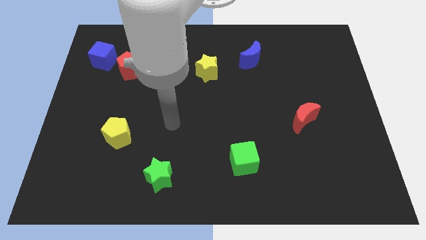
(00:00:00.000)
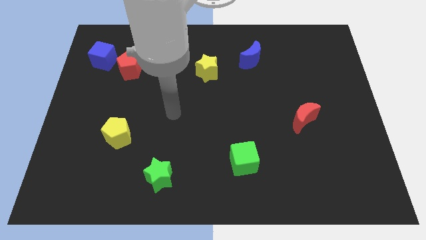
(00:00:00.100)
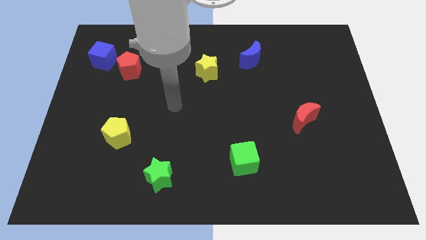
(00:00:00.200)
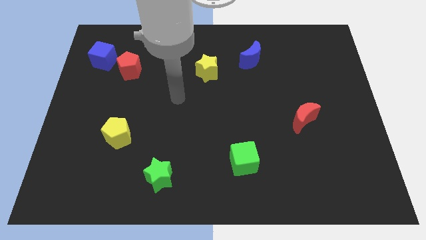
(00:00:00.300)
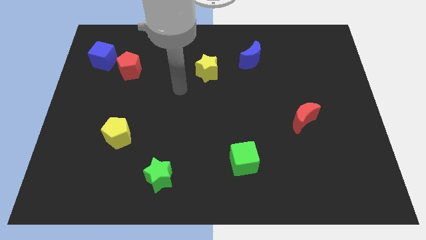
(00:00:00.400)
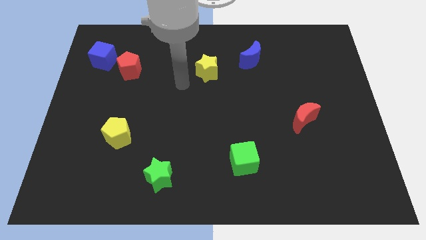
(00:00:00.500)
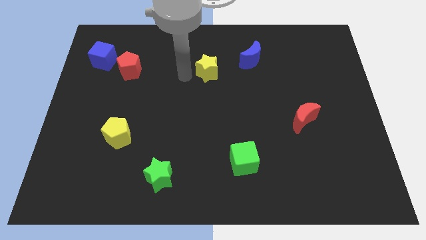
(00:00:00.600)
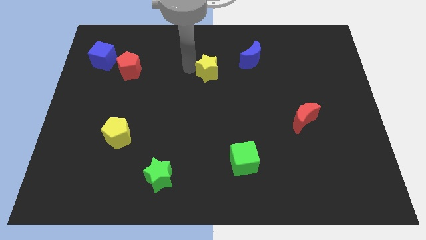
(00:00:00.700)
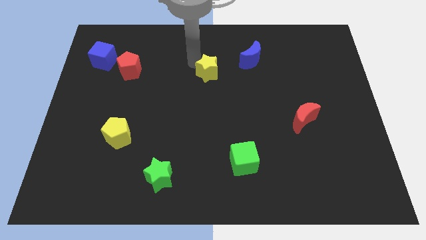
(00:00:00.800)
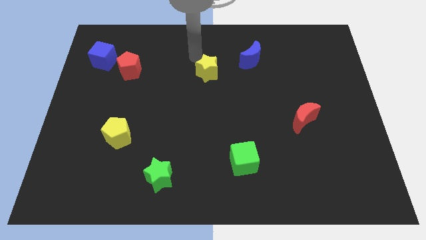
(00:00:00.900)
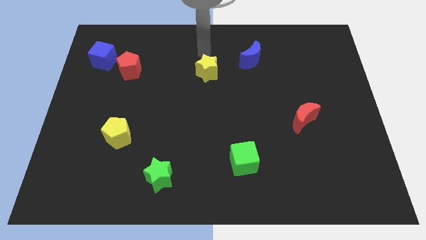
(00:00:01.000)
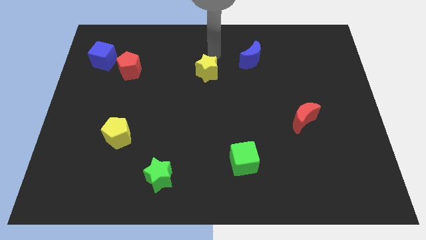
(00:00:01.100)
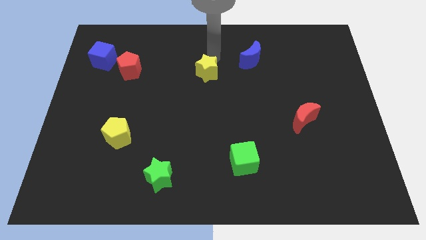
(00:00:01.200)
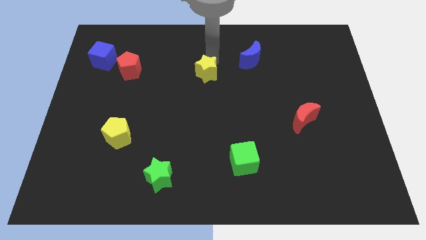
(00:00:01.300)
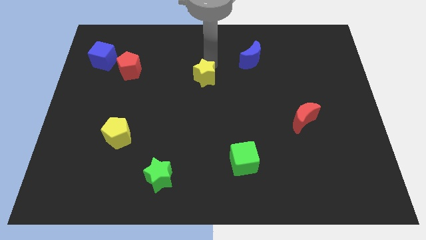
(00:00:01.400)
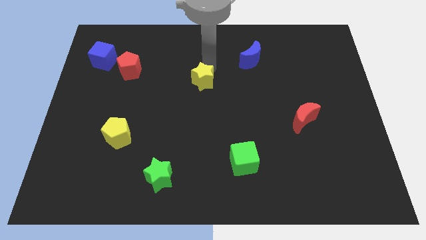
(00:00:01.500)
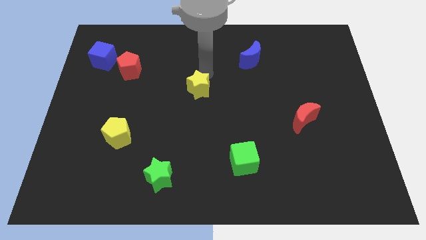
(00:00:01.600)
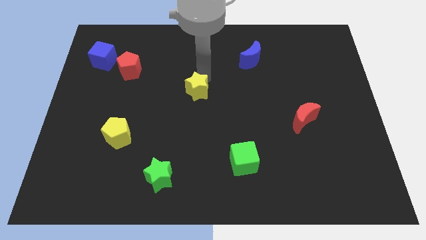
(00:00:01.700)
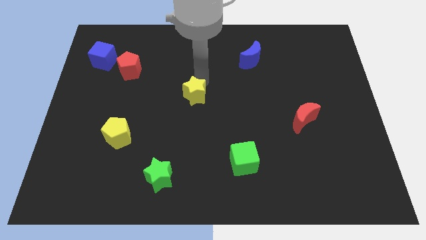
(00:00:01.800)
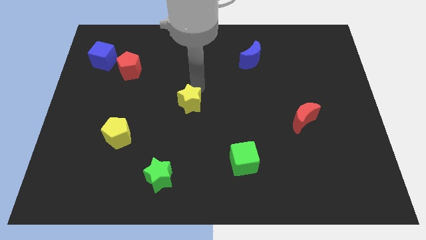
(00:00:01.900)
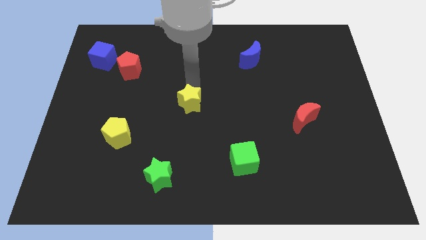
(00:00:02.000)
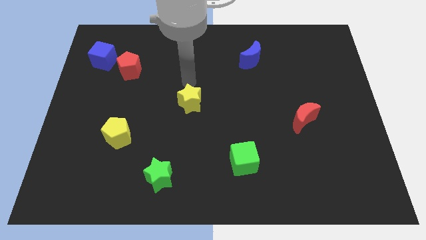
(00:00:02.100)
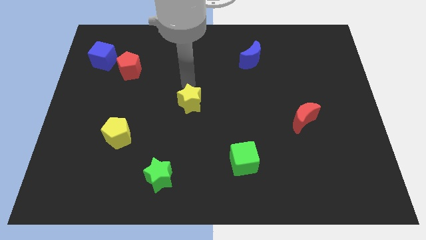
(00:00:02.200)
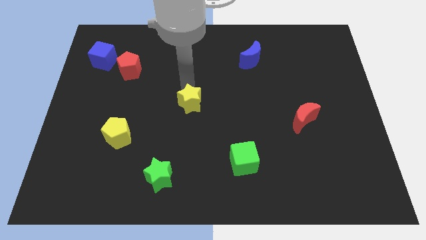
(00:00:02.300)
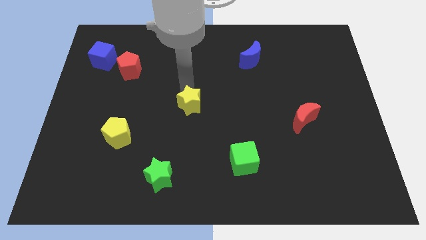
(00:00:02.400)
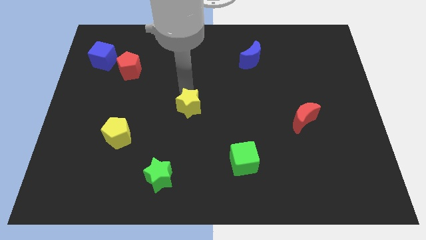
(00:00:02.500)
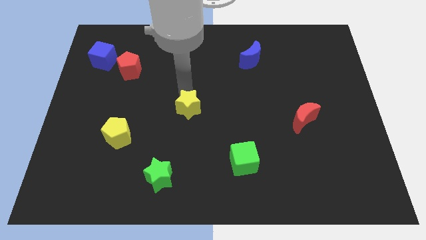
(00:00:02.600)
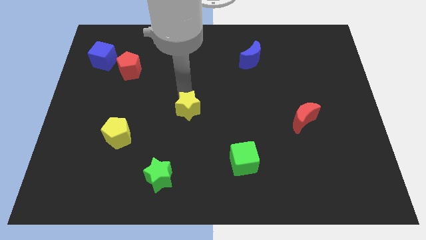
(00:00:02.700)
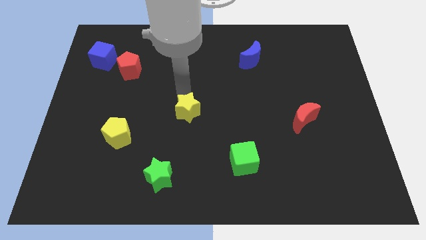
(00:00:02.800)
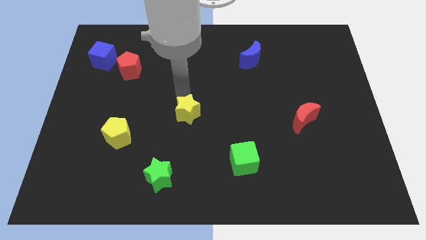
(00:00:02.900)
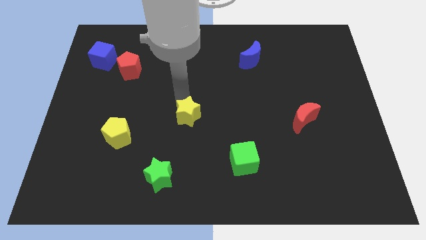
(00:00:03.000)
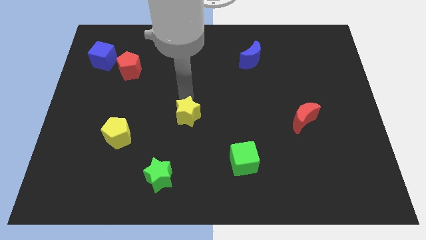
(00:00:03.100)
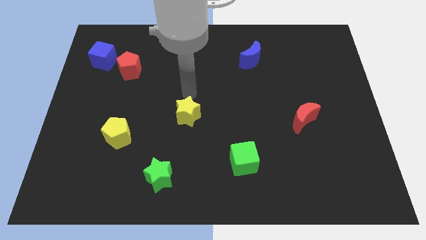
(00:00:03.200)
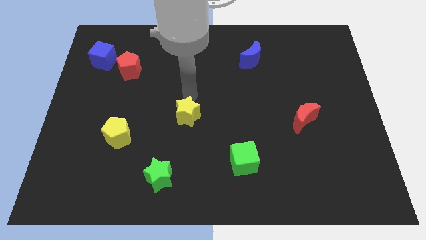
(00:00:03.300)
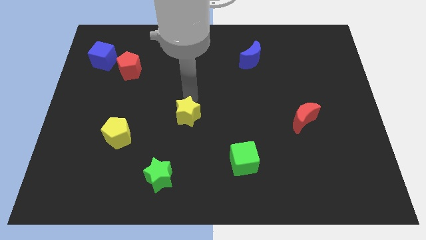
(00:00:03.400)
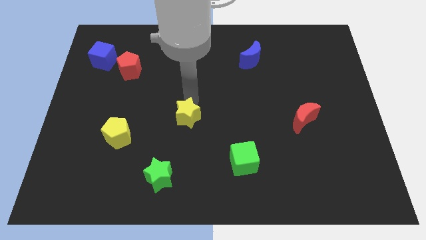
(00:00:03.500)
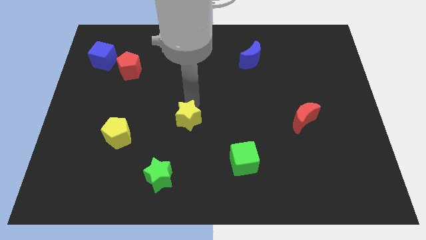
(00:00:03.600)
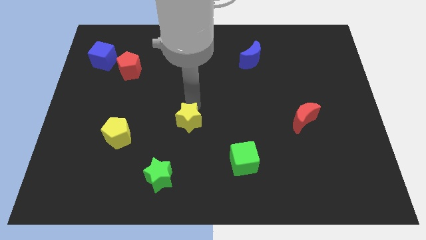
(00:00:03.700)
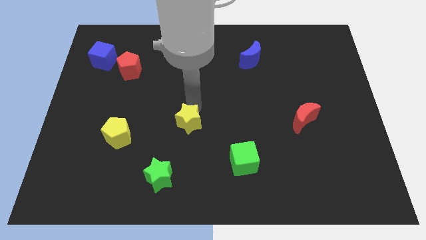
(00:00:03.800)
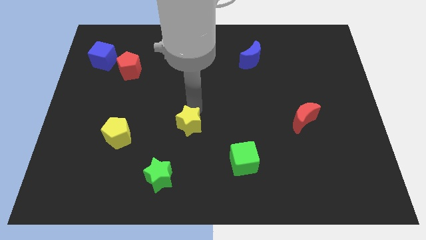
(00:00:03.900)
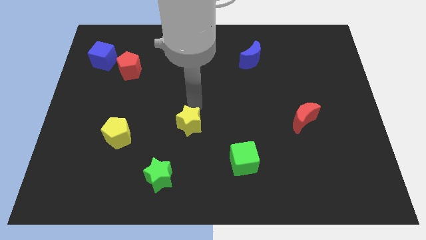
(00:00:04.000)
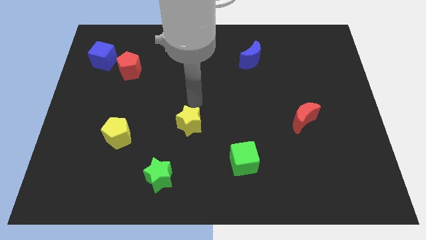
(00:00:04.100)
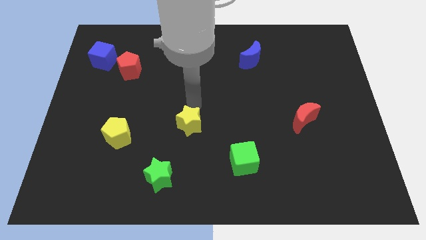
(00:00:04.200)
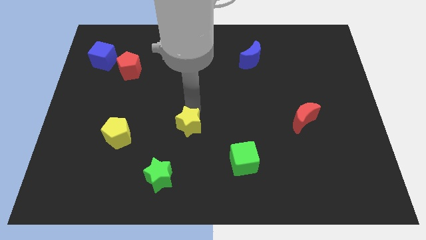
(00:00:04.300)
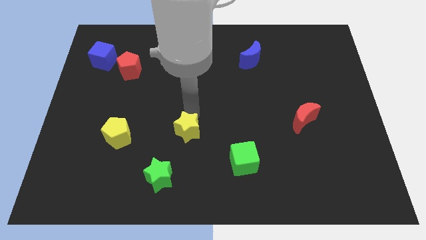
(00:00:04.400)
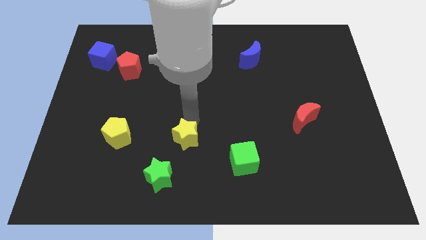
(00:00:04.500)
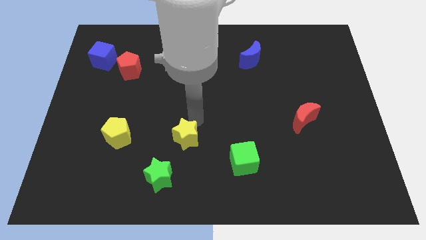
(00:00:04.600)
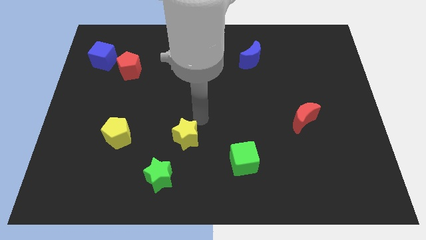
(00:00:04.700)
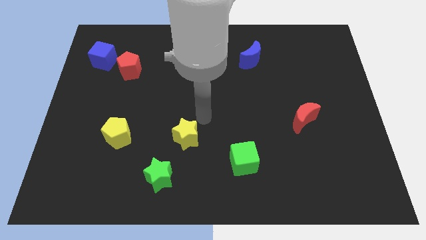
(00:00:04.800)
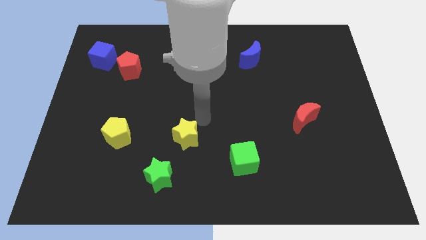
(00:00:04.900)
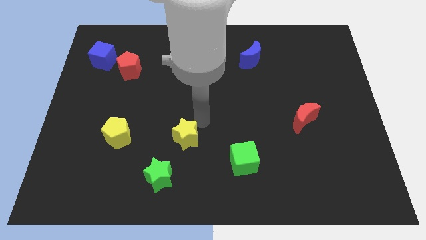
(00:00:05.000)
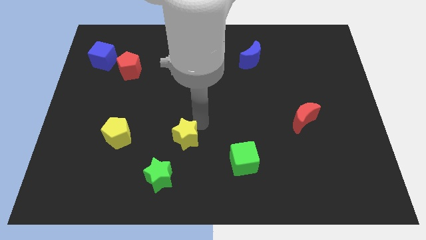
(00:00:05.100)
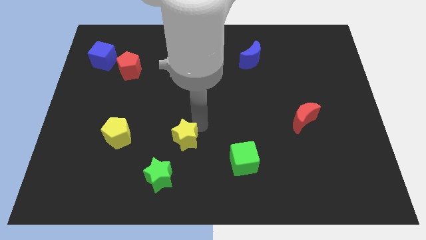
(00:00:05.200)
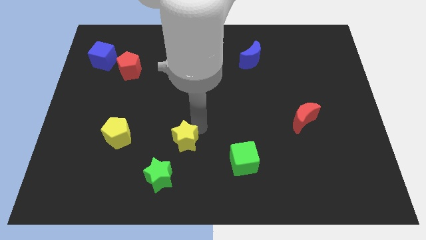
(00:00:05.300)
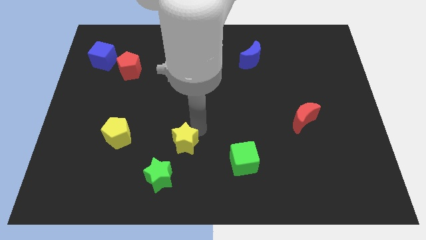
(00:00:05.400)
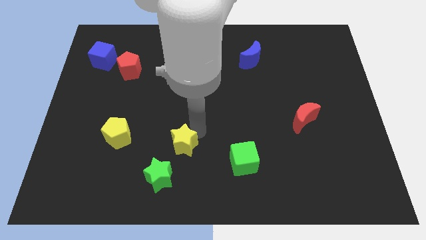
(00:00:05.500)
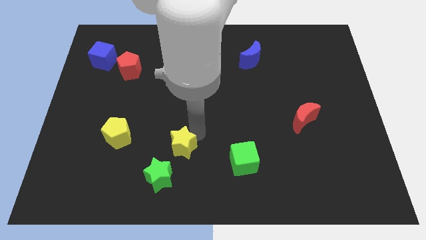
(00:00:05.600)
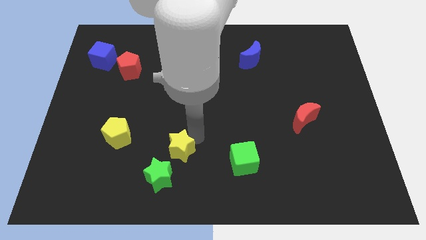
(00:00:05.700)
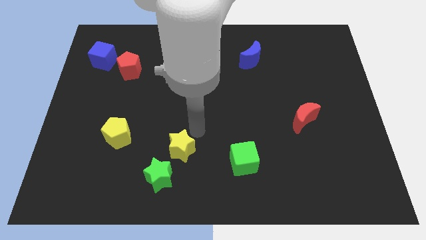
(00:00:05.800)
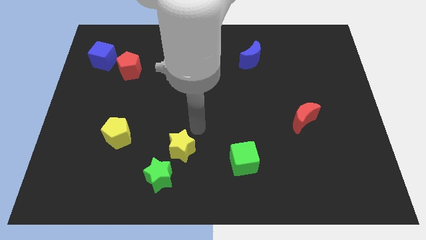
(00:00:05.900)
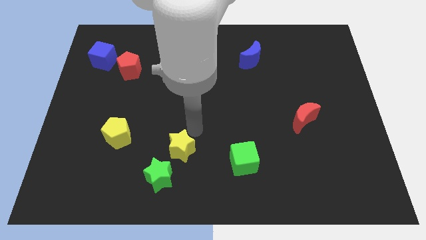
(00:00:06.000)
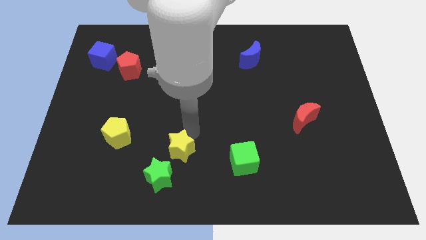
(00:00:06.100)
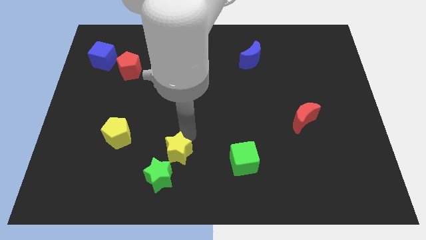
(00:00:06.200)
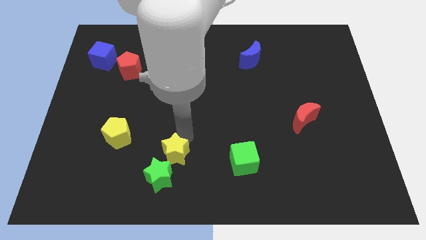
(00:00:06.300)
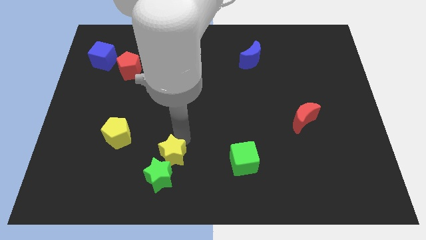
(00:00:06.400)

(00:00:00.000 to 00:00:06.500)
push the yellow star close to the green star

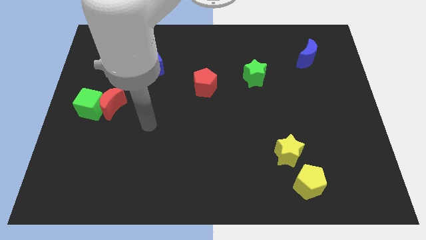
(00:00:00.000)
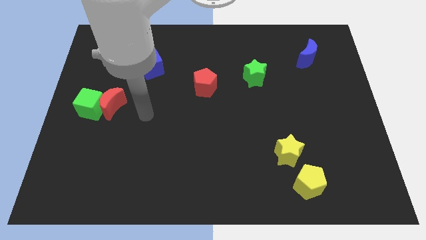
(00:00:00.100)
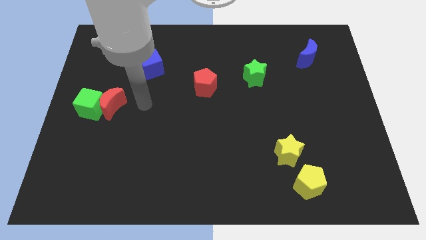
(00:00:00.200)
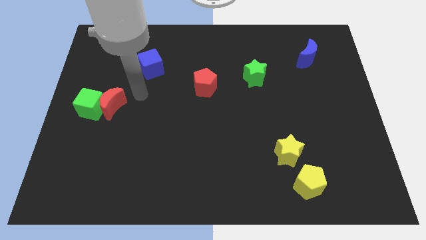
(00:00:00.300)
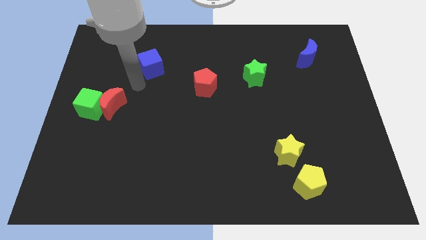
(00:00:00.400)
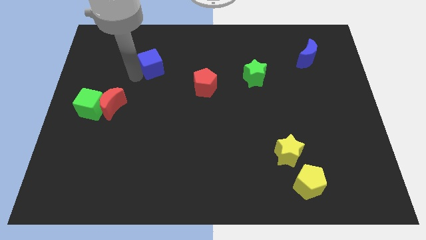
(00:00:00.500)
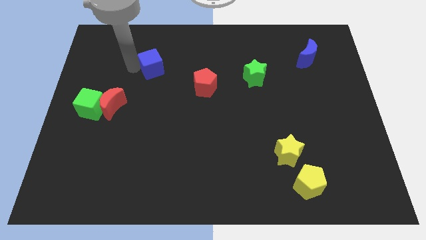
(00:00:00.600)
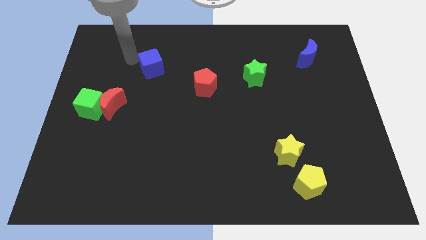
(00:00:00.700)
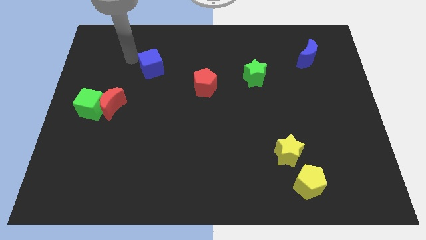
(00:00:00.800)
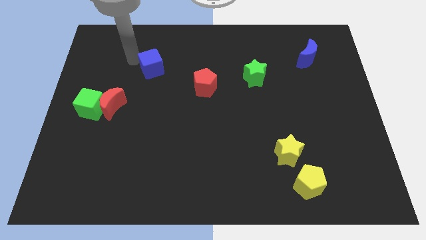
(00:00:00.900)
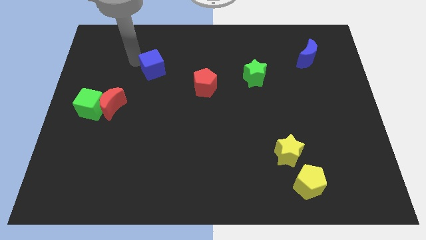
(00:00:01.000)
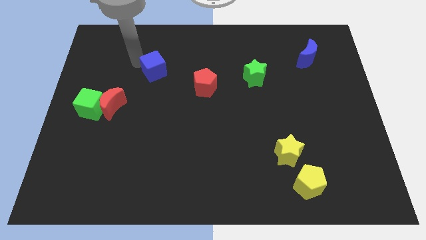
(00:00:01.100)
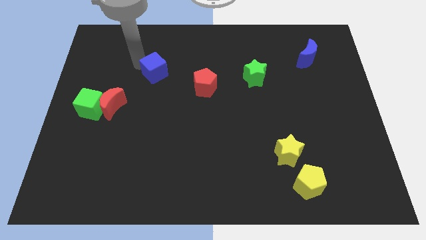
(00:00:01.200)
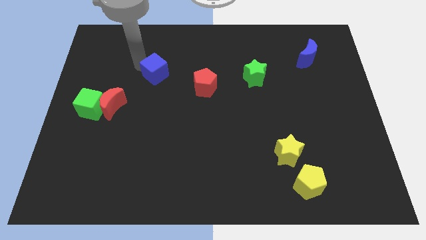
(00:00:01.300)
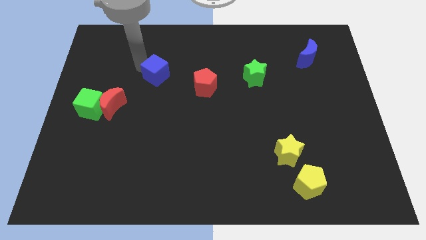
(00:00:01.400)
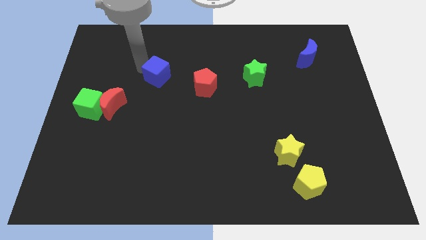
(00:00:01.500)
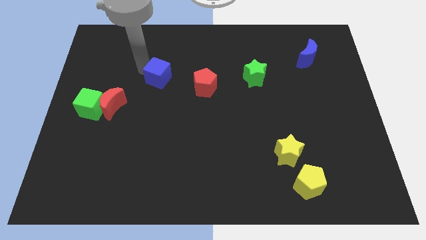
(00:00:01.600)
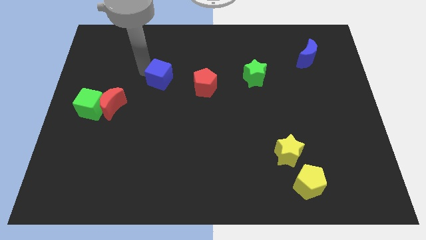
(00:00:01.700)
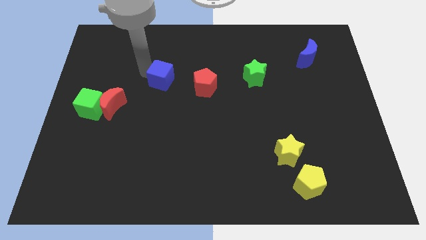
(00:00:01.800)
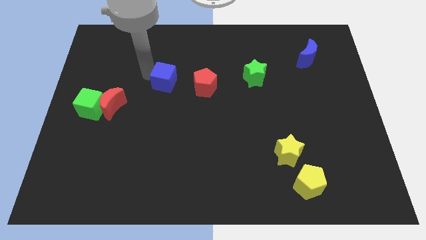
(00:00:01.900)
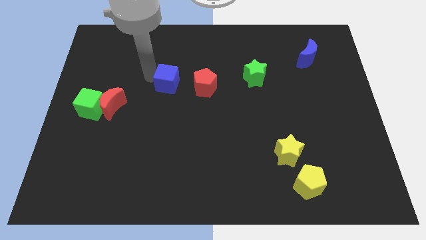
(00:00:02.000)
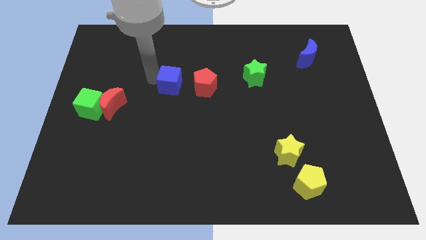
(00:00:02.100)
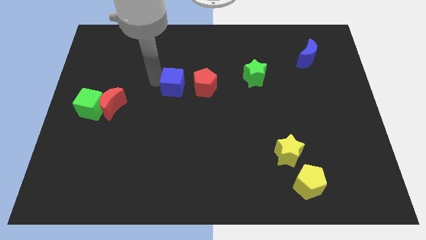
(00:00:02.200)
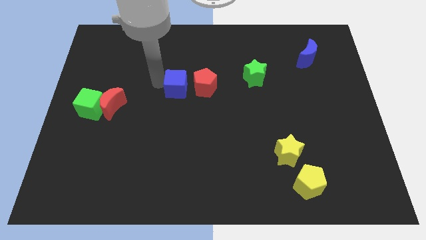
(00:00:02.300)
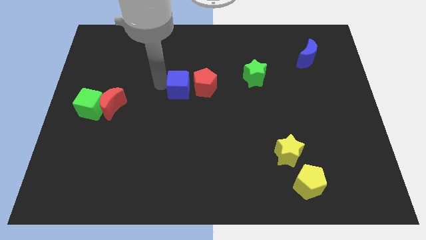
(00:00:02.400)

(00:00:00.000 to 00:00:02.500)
move the blue cube to the red pentagon
